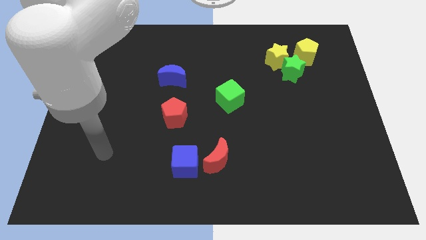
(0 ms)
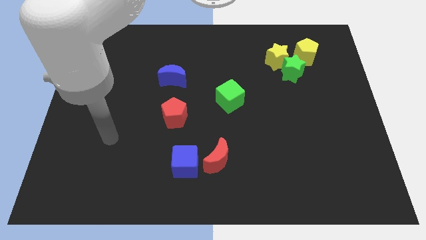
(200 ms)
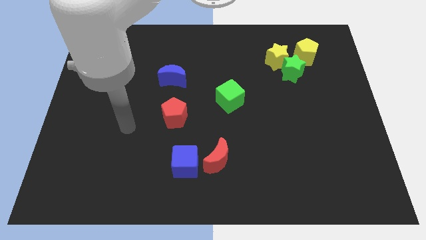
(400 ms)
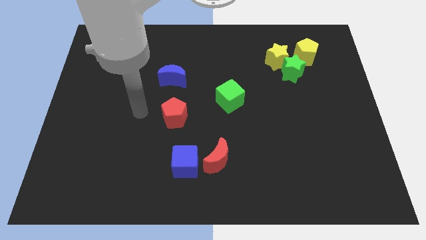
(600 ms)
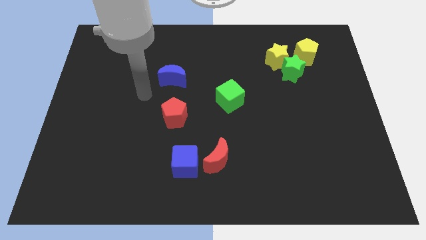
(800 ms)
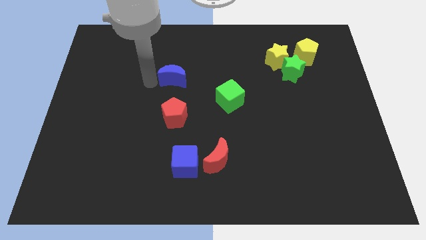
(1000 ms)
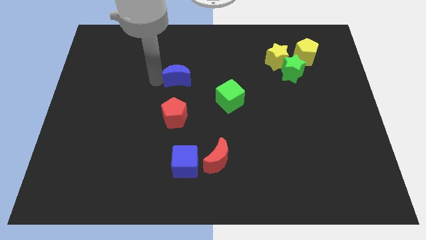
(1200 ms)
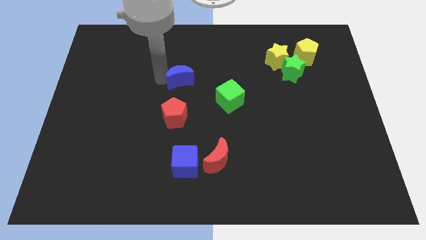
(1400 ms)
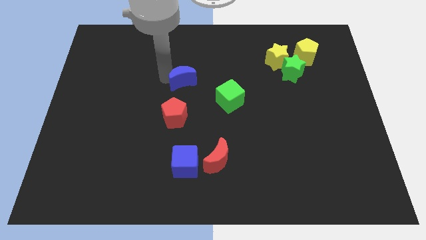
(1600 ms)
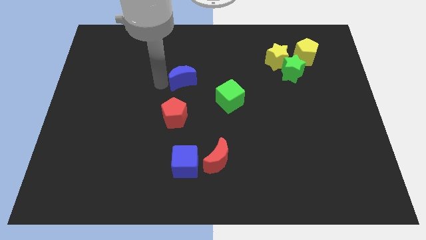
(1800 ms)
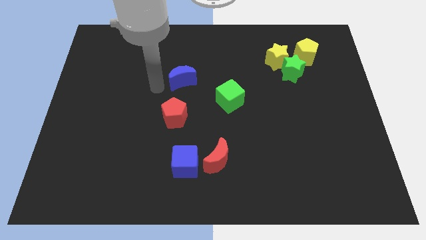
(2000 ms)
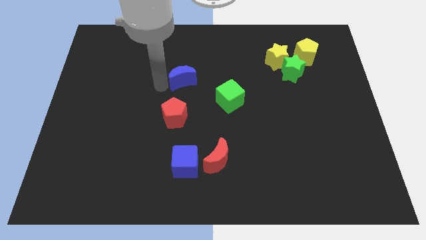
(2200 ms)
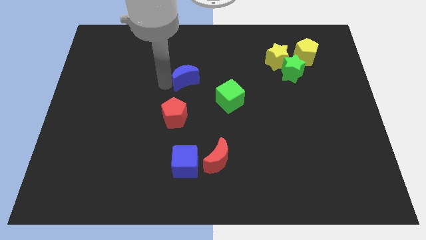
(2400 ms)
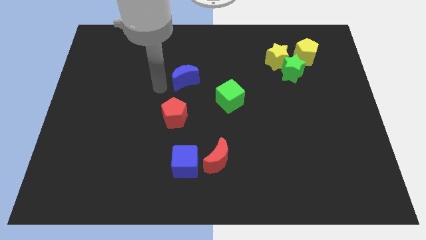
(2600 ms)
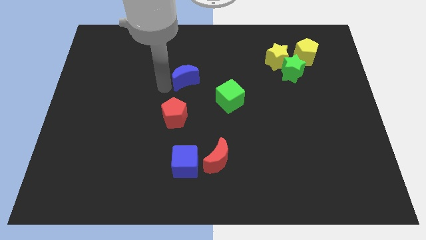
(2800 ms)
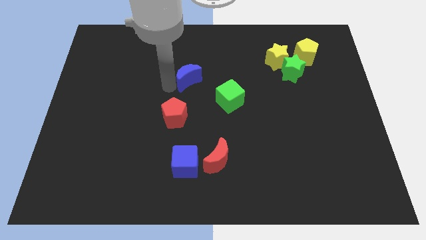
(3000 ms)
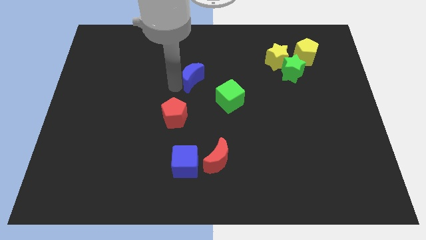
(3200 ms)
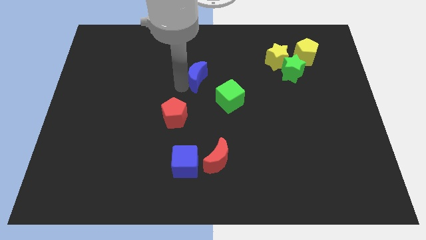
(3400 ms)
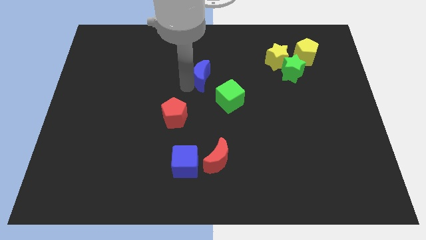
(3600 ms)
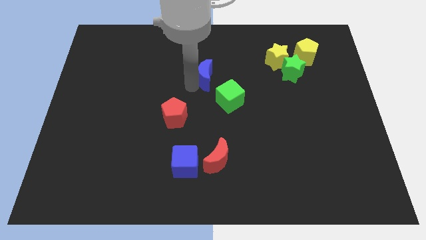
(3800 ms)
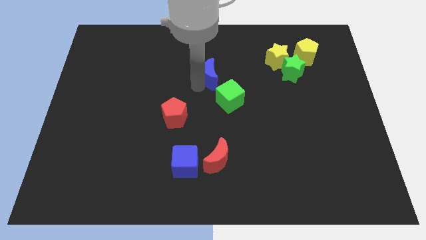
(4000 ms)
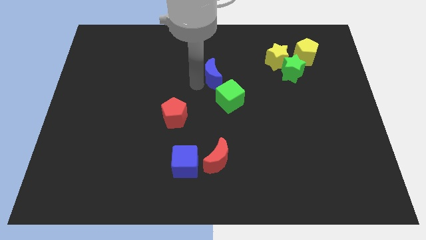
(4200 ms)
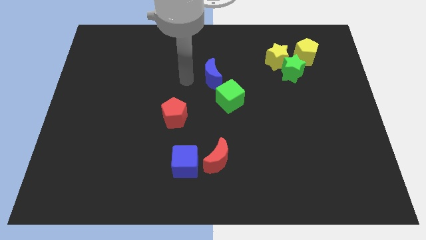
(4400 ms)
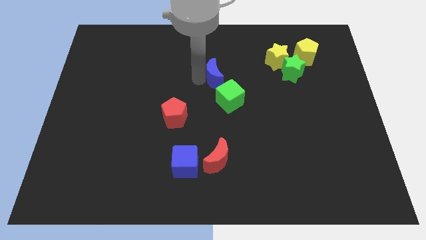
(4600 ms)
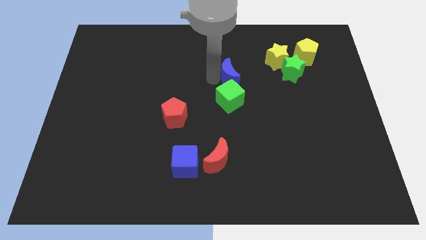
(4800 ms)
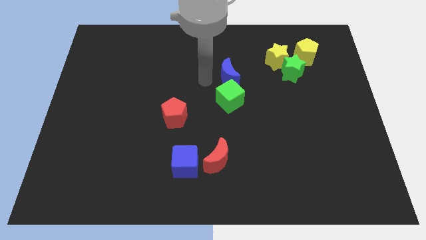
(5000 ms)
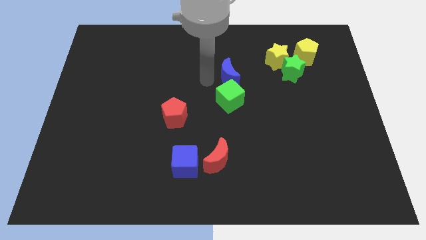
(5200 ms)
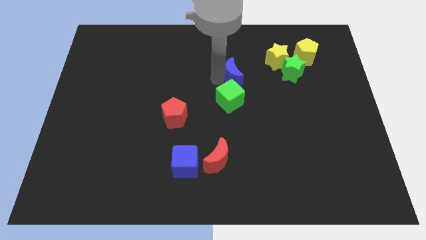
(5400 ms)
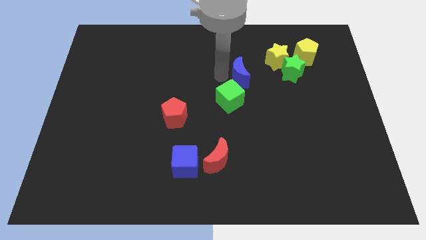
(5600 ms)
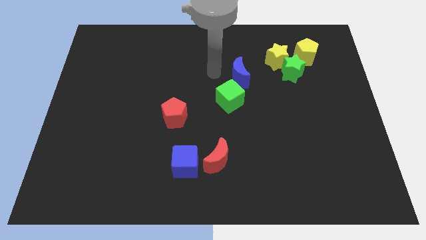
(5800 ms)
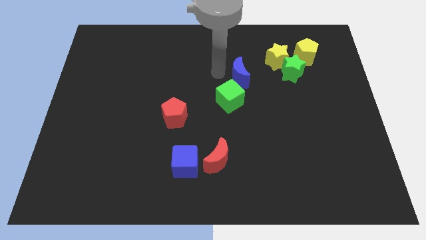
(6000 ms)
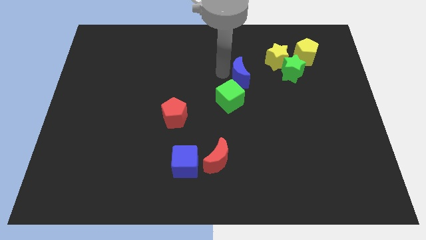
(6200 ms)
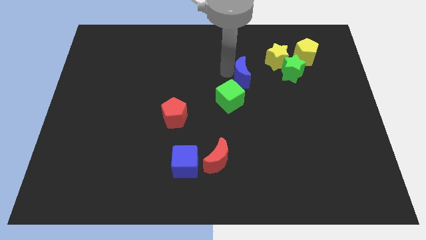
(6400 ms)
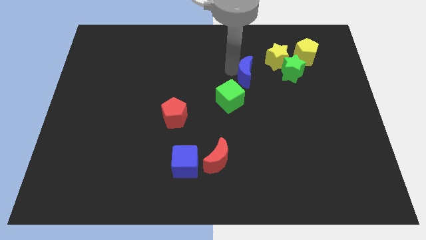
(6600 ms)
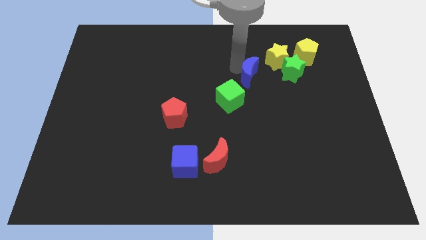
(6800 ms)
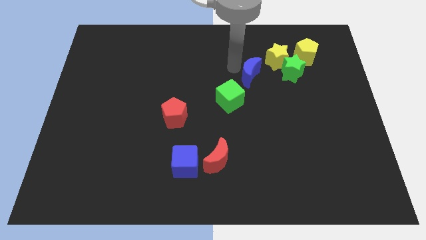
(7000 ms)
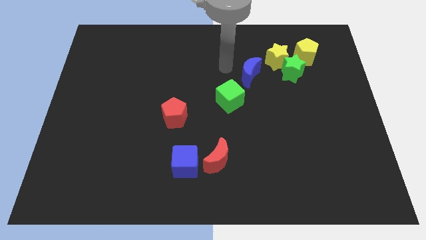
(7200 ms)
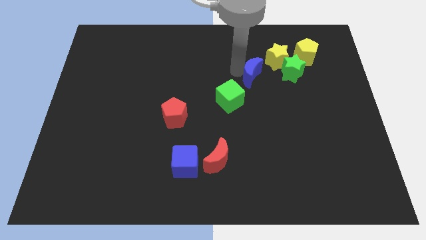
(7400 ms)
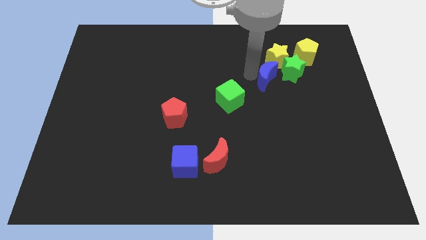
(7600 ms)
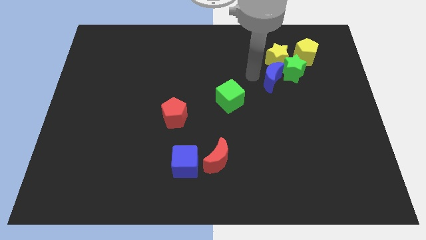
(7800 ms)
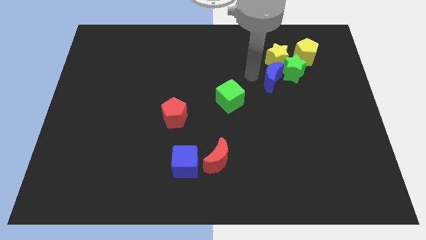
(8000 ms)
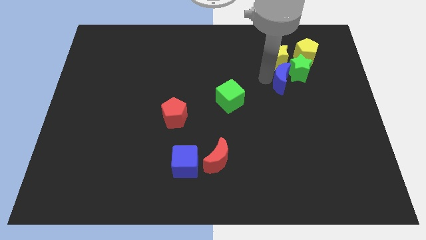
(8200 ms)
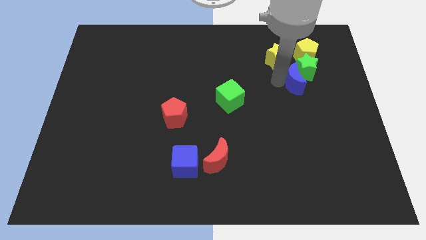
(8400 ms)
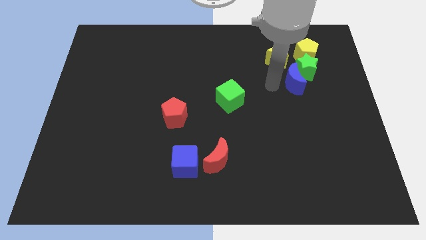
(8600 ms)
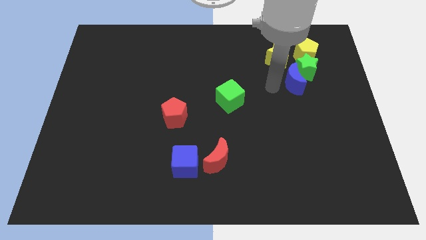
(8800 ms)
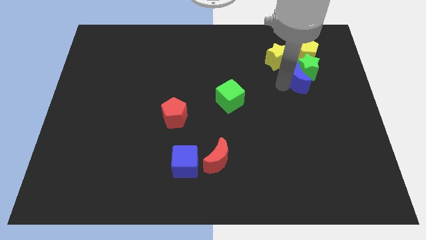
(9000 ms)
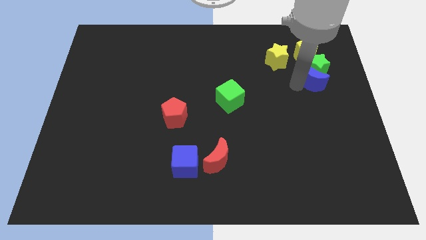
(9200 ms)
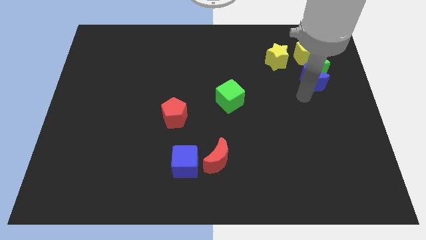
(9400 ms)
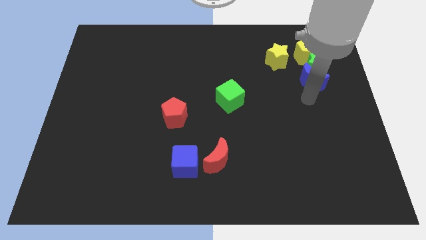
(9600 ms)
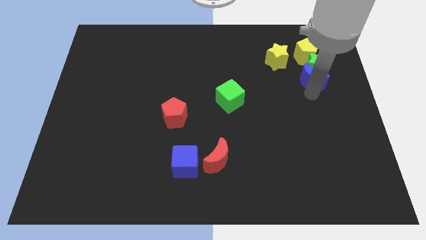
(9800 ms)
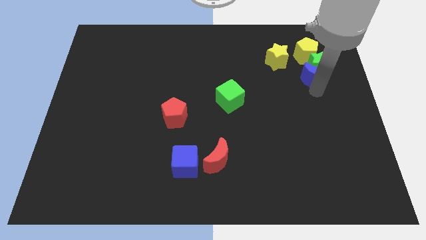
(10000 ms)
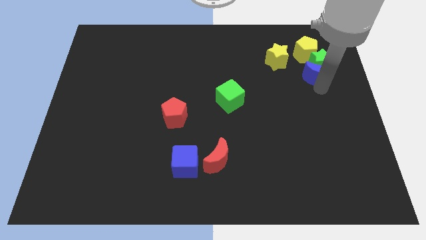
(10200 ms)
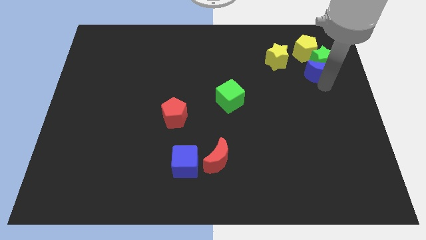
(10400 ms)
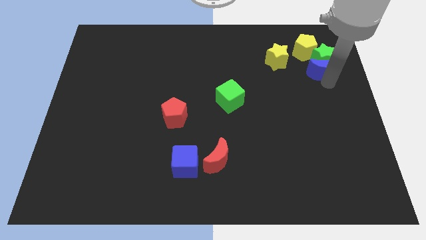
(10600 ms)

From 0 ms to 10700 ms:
move the blue moon to the right side of the yellow star

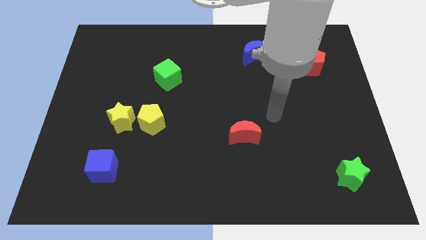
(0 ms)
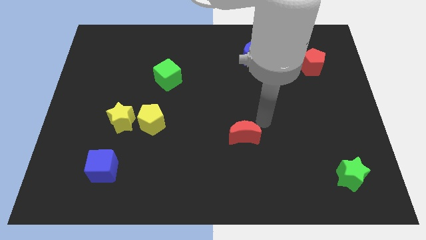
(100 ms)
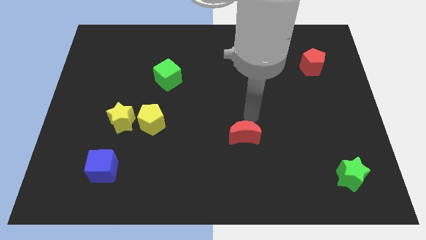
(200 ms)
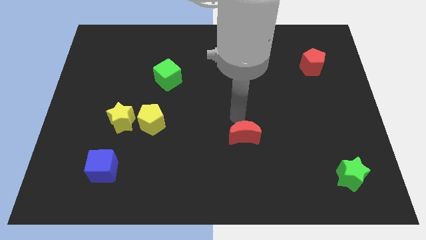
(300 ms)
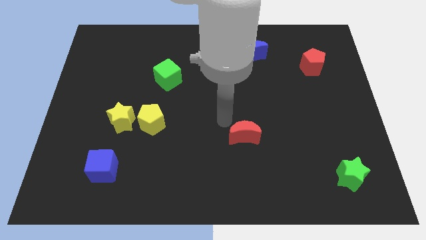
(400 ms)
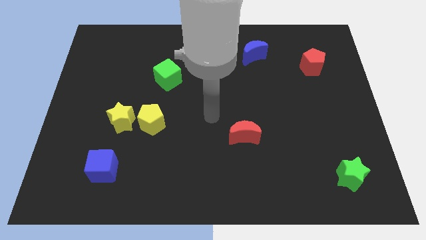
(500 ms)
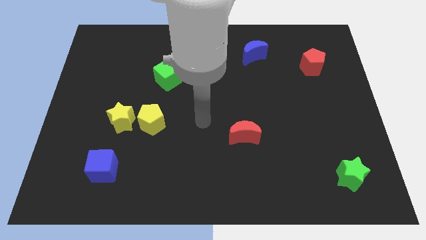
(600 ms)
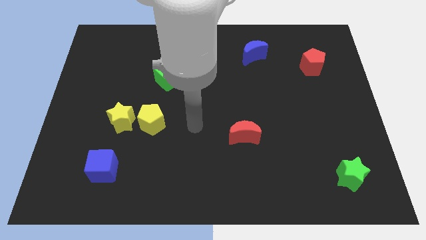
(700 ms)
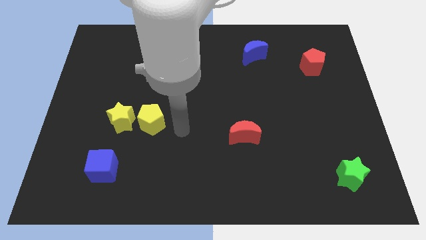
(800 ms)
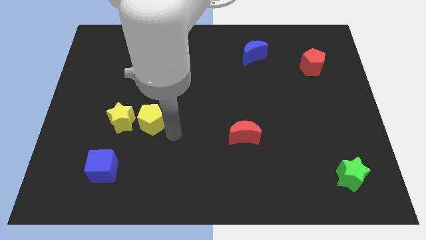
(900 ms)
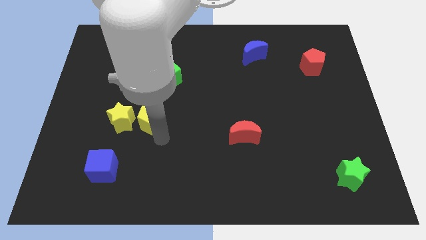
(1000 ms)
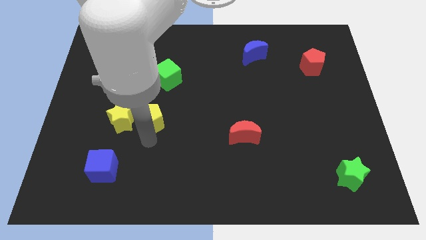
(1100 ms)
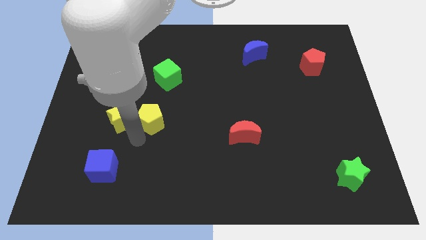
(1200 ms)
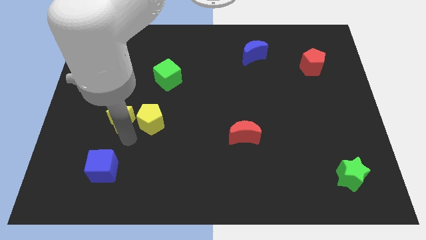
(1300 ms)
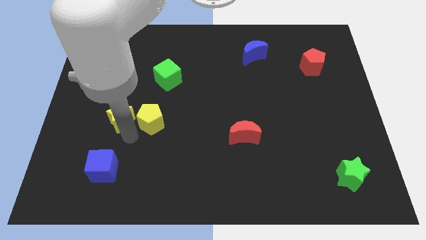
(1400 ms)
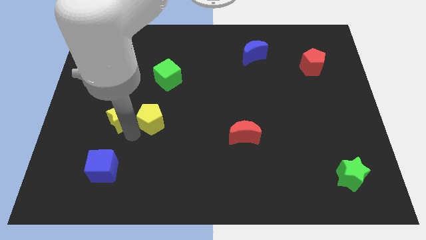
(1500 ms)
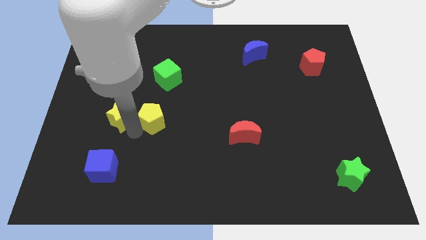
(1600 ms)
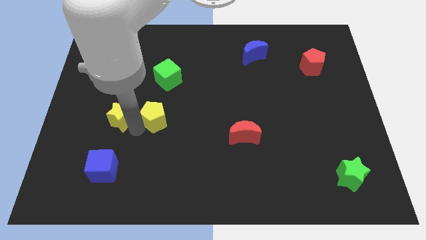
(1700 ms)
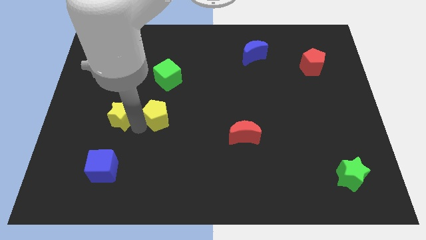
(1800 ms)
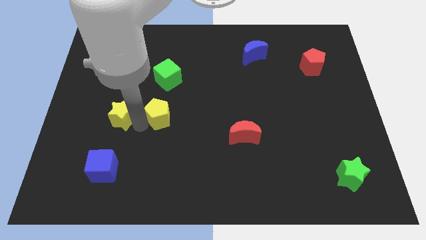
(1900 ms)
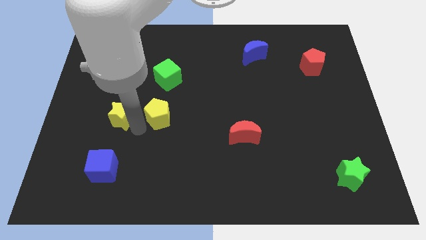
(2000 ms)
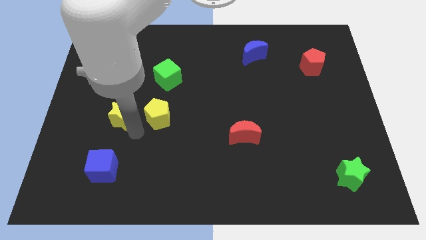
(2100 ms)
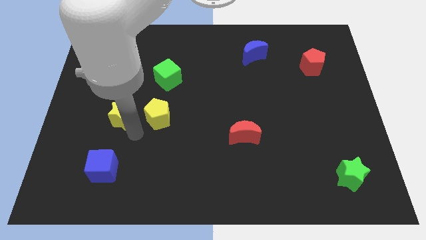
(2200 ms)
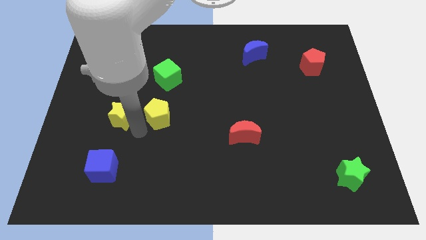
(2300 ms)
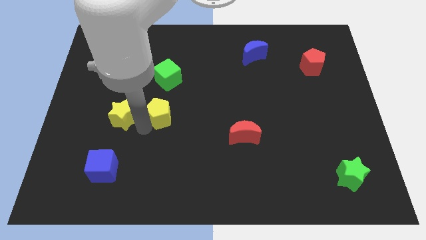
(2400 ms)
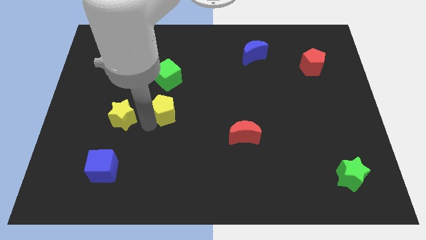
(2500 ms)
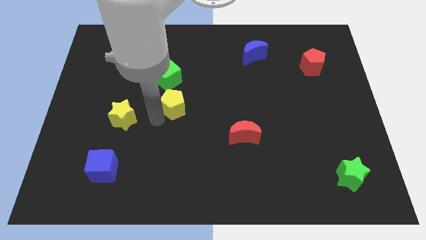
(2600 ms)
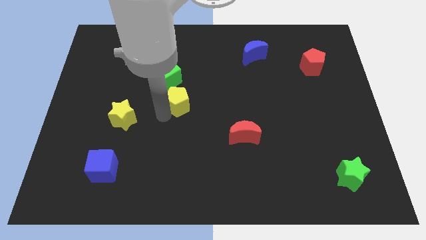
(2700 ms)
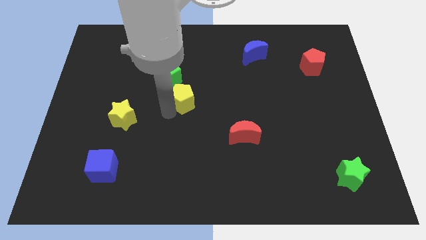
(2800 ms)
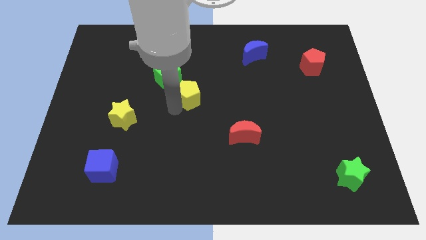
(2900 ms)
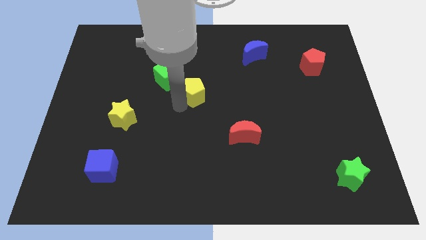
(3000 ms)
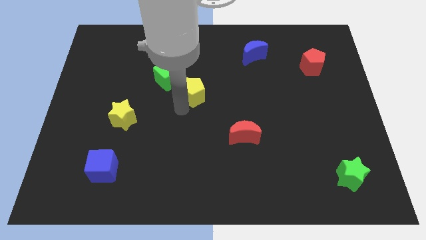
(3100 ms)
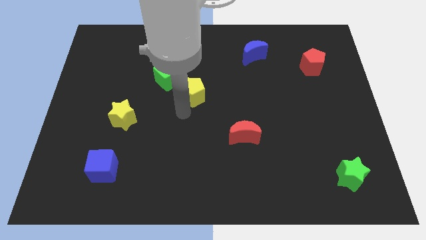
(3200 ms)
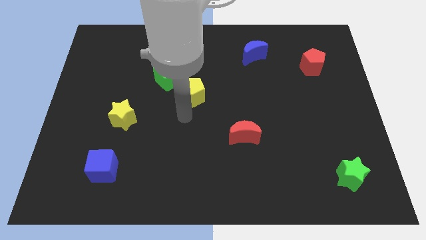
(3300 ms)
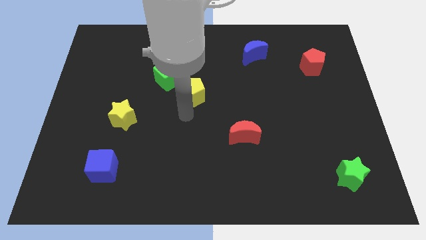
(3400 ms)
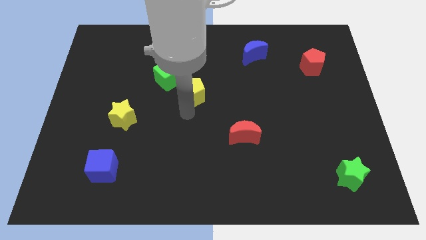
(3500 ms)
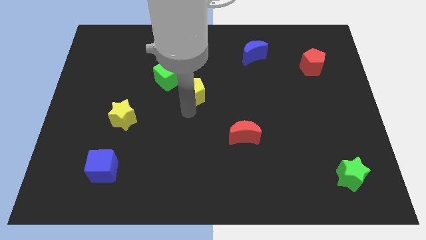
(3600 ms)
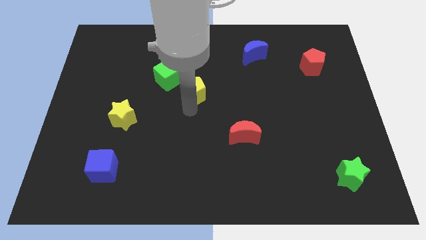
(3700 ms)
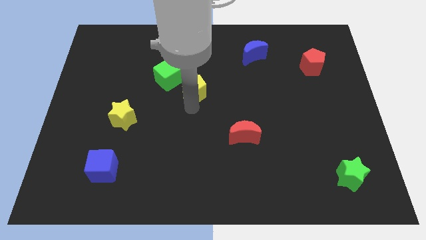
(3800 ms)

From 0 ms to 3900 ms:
push the yellow pentagon to the right of the green cube
